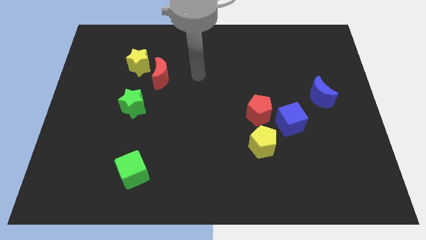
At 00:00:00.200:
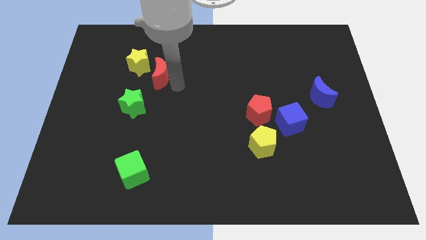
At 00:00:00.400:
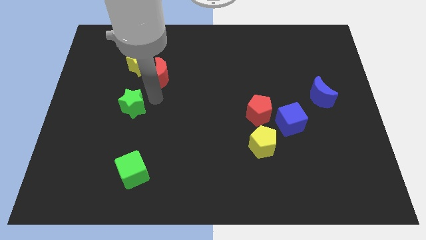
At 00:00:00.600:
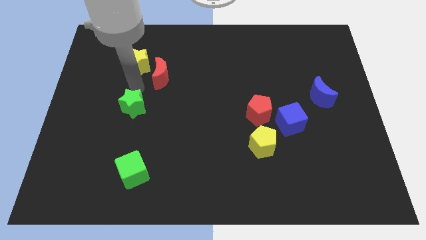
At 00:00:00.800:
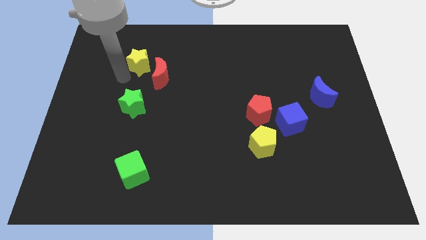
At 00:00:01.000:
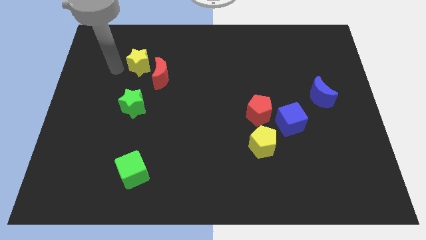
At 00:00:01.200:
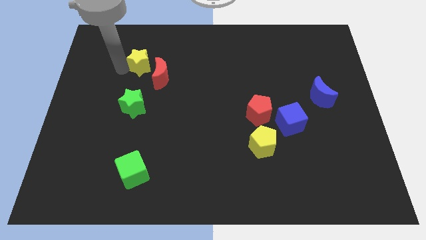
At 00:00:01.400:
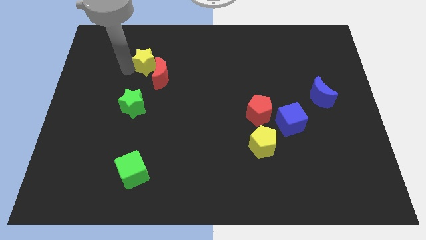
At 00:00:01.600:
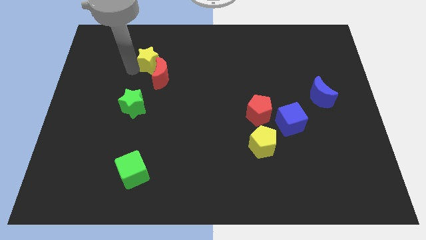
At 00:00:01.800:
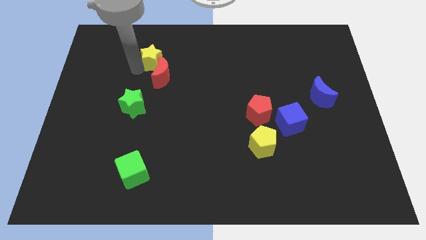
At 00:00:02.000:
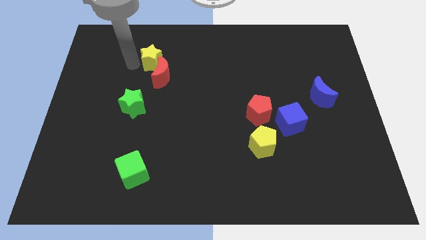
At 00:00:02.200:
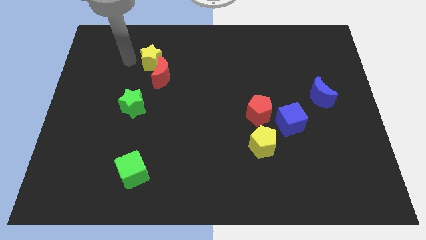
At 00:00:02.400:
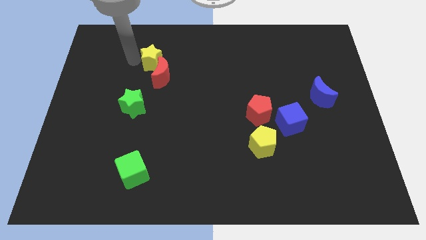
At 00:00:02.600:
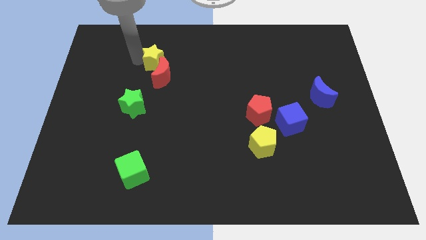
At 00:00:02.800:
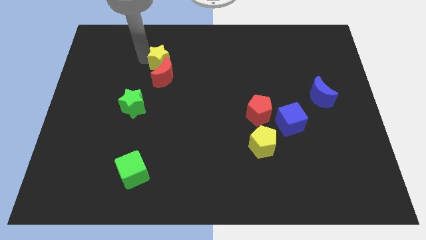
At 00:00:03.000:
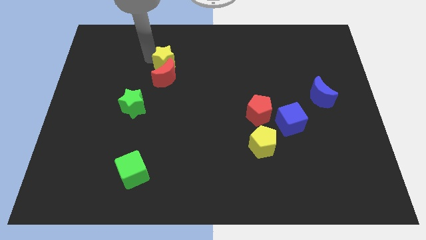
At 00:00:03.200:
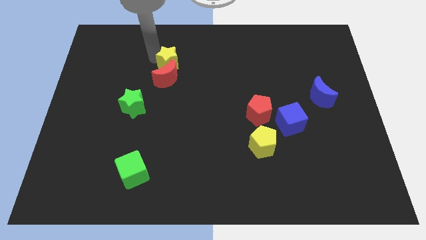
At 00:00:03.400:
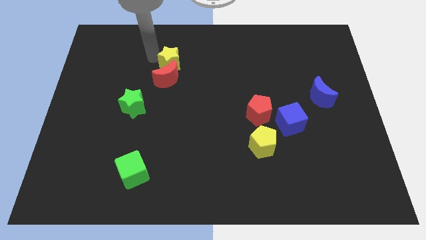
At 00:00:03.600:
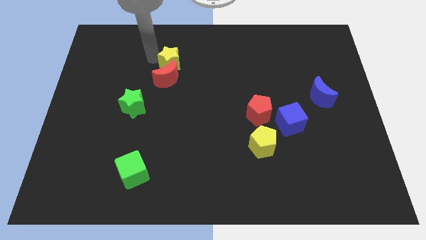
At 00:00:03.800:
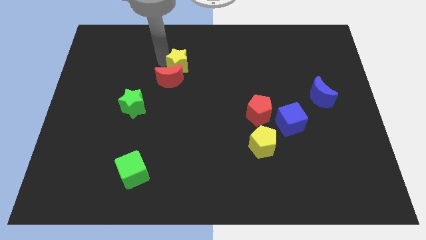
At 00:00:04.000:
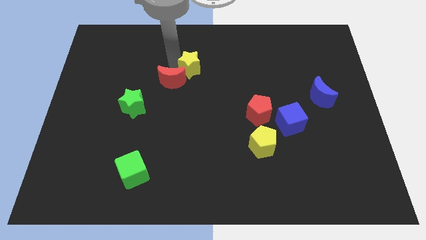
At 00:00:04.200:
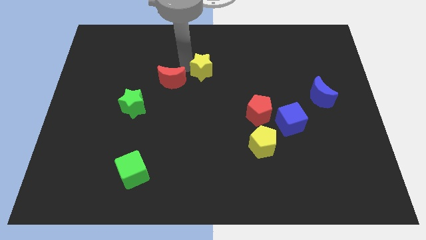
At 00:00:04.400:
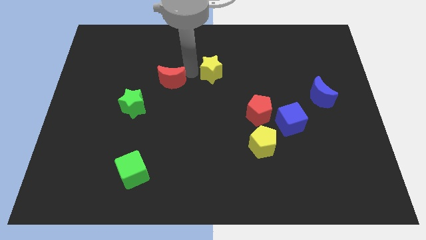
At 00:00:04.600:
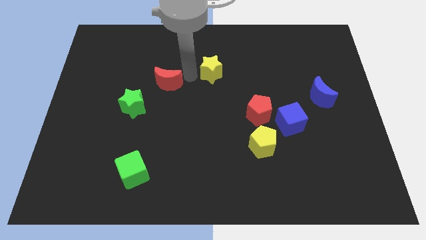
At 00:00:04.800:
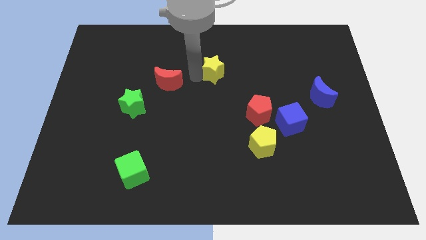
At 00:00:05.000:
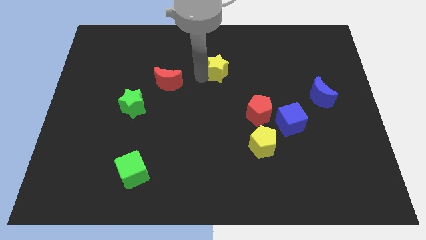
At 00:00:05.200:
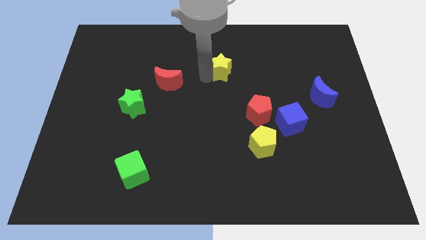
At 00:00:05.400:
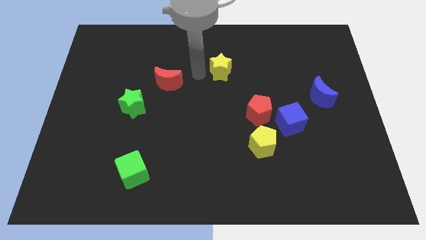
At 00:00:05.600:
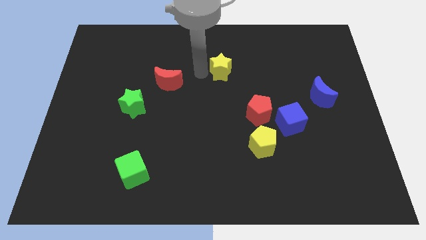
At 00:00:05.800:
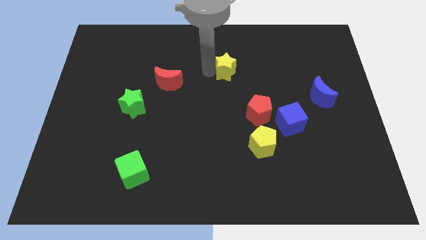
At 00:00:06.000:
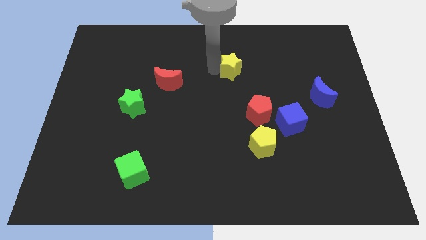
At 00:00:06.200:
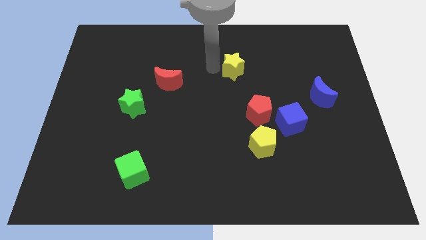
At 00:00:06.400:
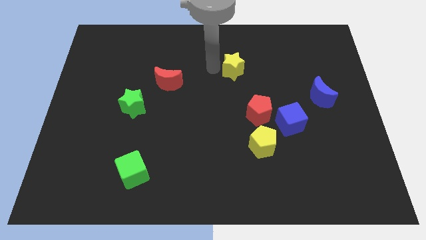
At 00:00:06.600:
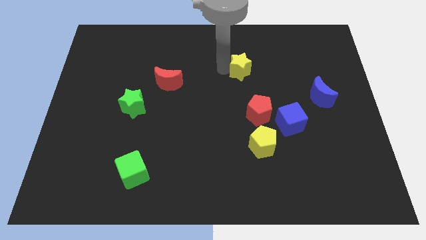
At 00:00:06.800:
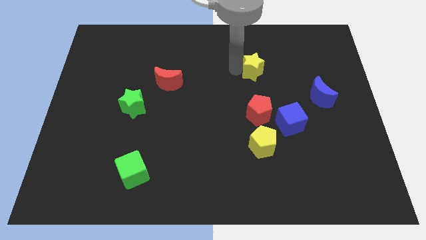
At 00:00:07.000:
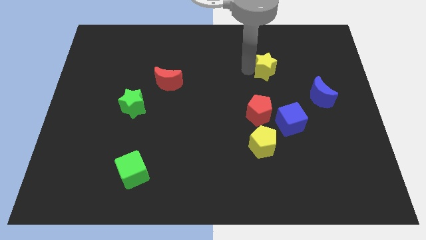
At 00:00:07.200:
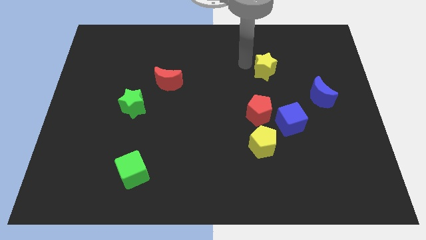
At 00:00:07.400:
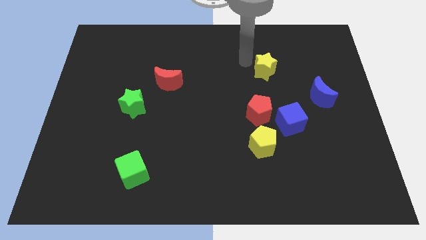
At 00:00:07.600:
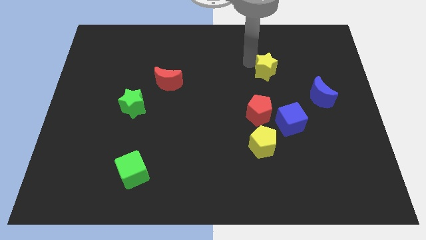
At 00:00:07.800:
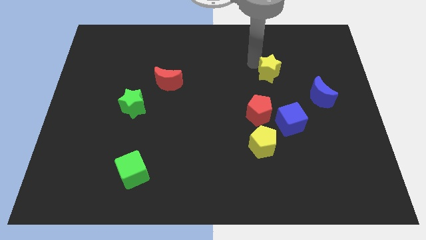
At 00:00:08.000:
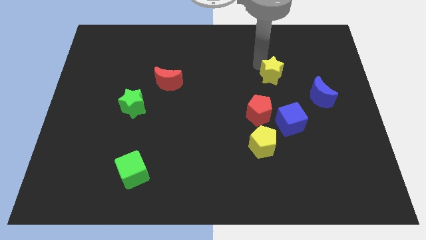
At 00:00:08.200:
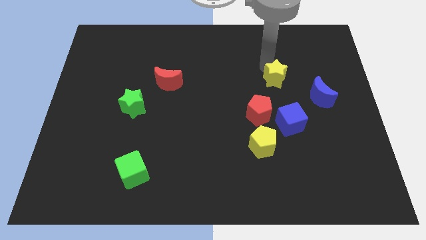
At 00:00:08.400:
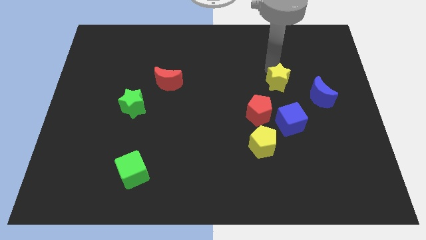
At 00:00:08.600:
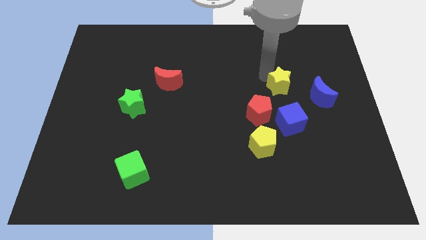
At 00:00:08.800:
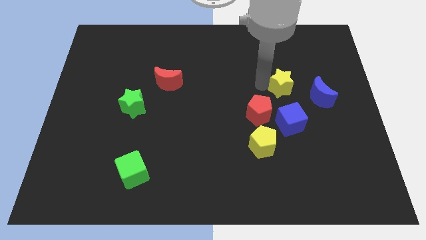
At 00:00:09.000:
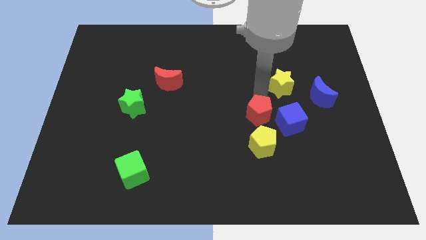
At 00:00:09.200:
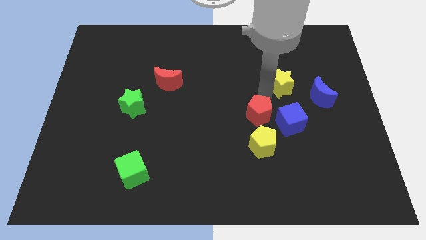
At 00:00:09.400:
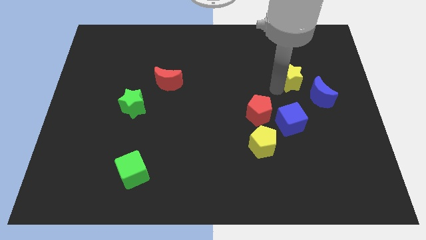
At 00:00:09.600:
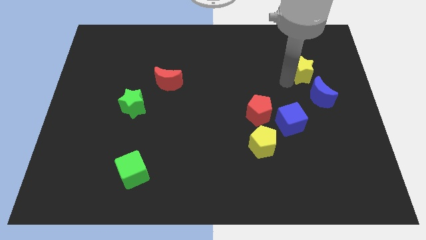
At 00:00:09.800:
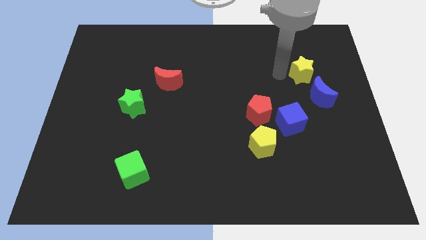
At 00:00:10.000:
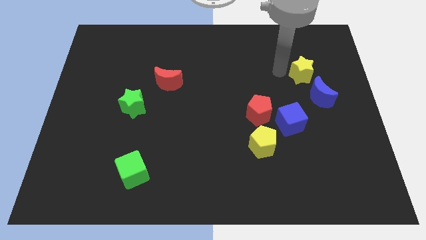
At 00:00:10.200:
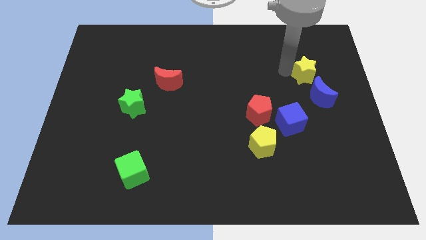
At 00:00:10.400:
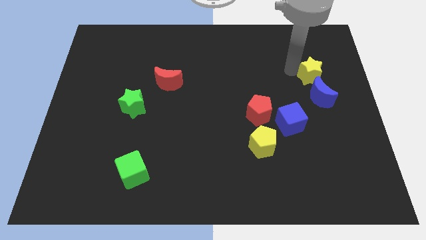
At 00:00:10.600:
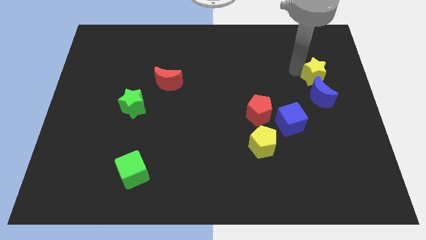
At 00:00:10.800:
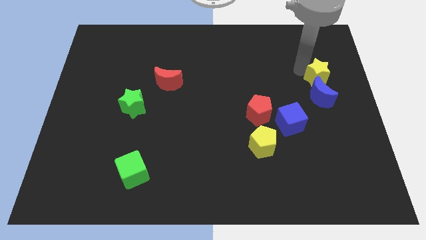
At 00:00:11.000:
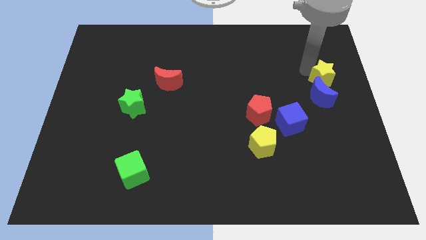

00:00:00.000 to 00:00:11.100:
put the yellow star to the center right

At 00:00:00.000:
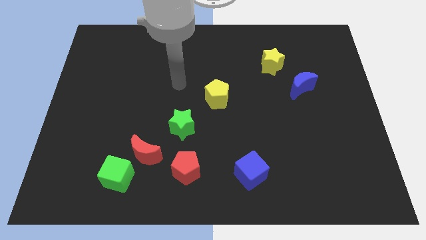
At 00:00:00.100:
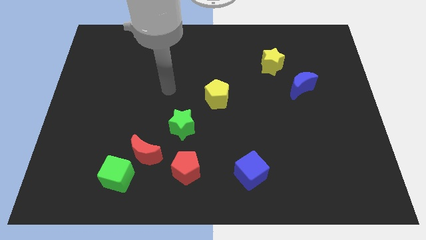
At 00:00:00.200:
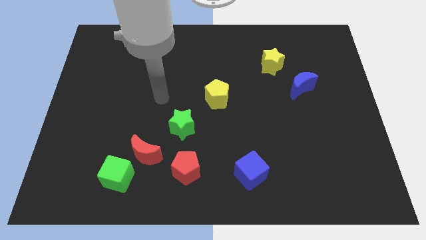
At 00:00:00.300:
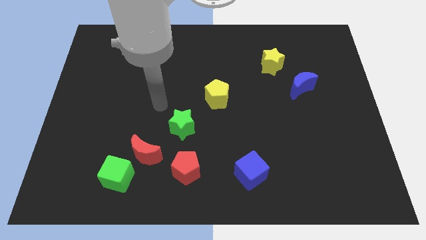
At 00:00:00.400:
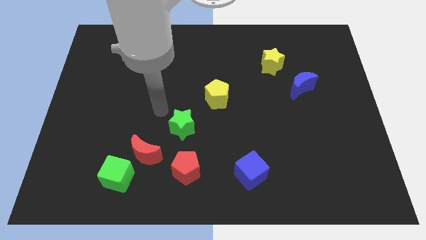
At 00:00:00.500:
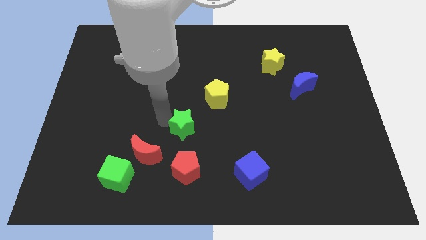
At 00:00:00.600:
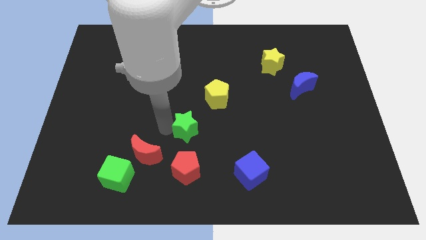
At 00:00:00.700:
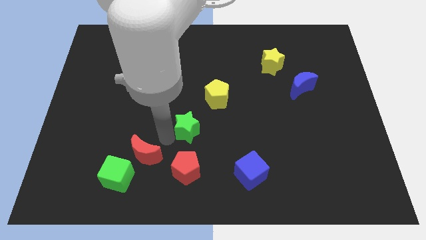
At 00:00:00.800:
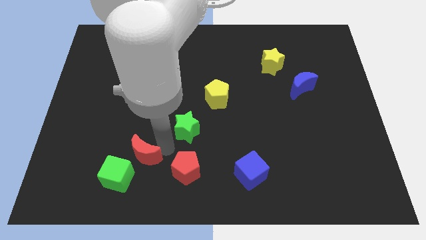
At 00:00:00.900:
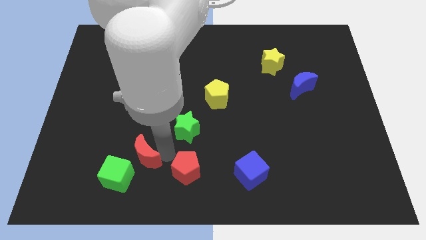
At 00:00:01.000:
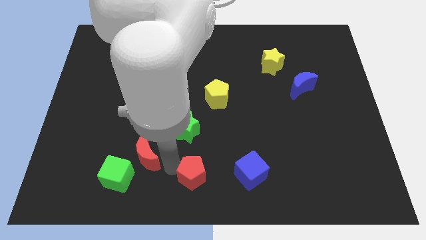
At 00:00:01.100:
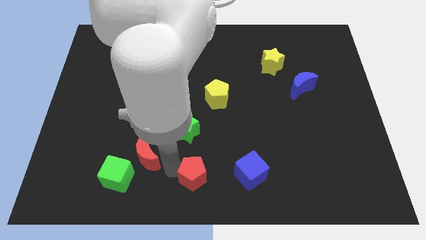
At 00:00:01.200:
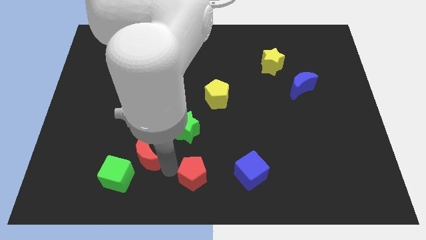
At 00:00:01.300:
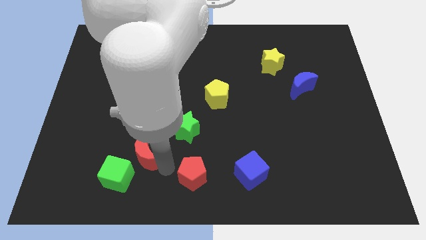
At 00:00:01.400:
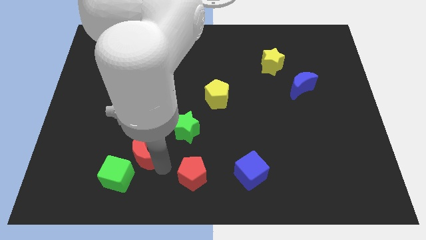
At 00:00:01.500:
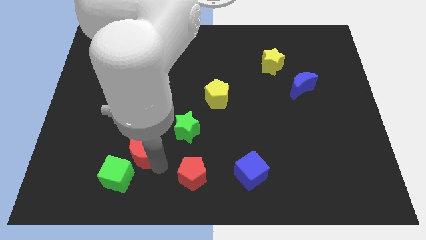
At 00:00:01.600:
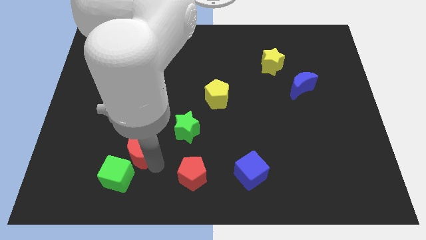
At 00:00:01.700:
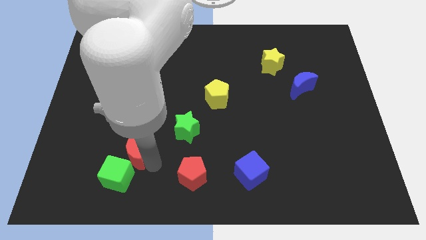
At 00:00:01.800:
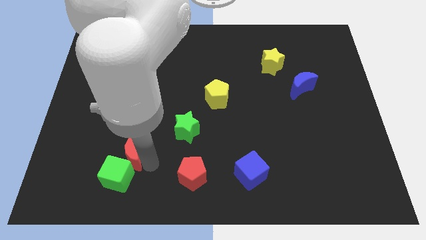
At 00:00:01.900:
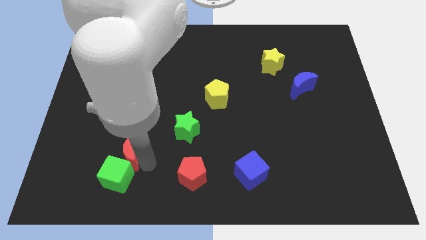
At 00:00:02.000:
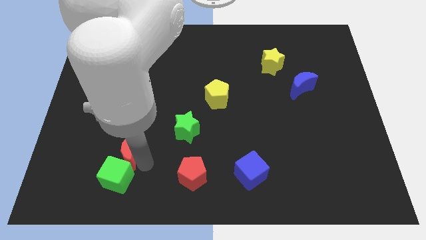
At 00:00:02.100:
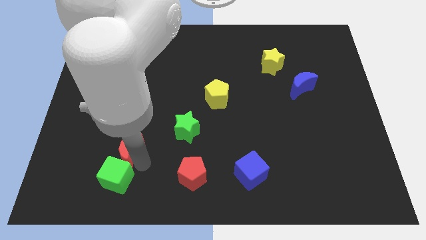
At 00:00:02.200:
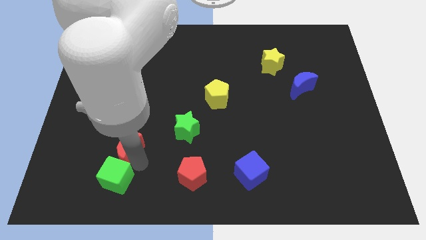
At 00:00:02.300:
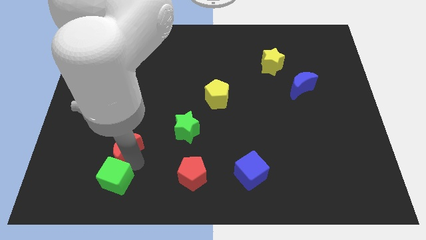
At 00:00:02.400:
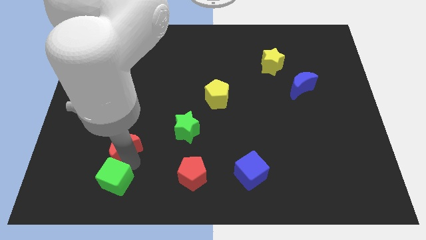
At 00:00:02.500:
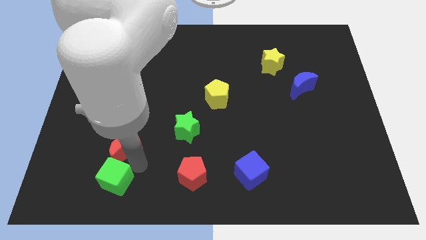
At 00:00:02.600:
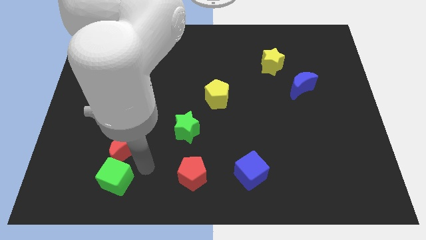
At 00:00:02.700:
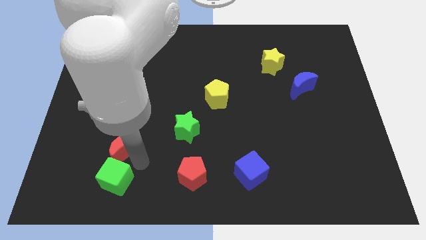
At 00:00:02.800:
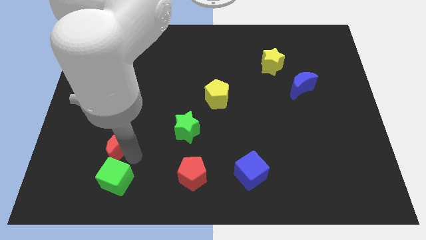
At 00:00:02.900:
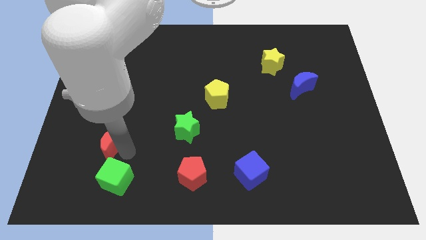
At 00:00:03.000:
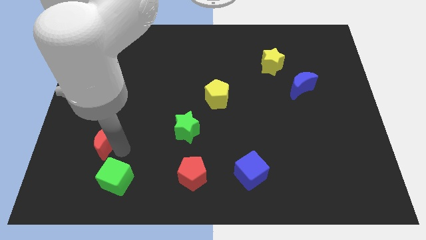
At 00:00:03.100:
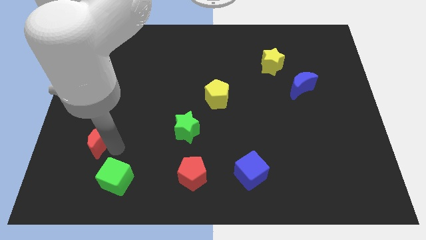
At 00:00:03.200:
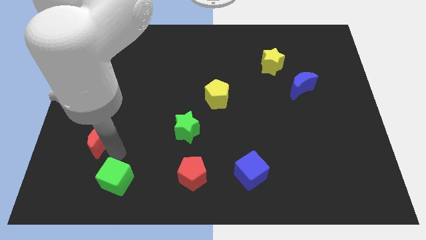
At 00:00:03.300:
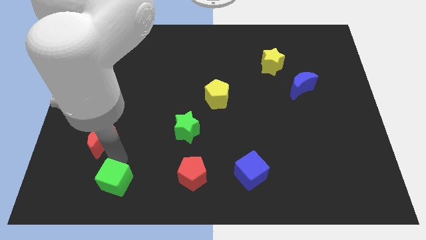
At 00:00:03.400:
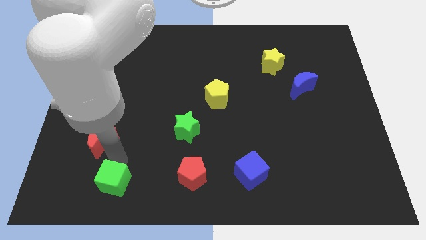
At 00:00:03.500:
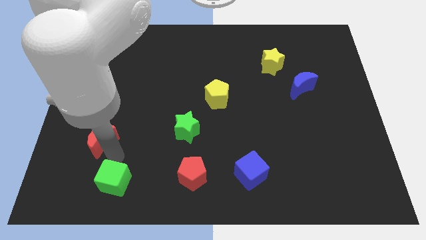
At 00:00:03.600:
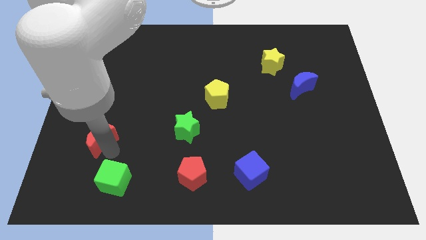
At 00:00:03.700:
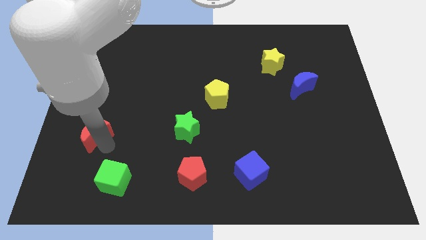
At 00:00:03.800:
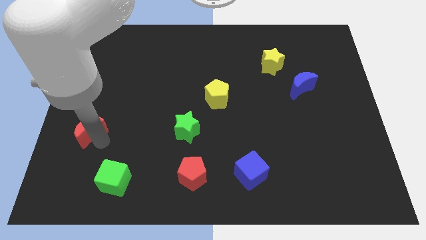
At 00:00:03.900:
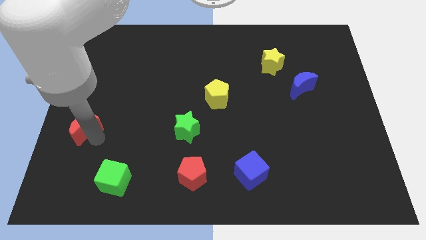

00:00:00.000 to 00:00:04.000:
move the red moon to the center left
